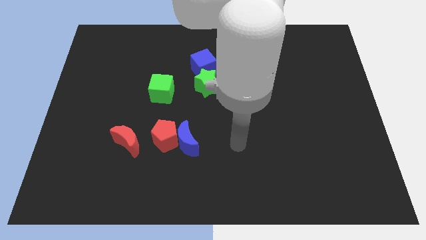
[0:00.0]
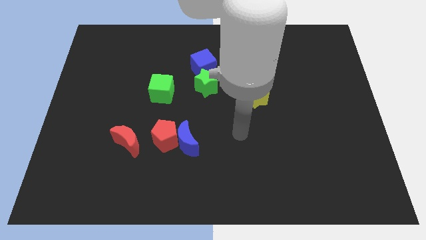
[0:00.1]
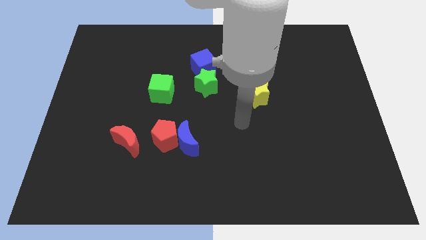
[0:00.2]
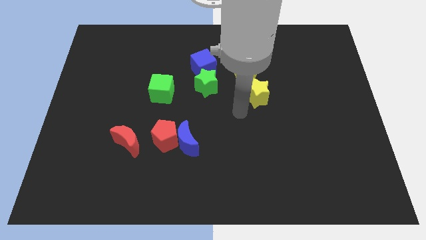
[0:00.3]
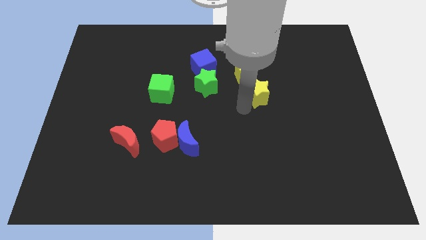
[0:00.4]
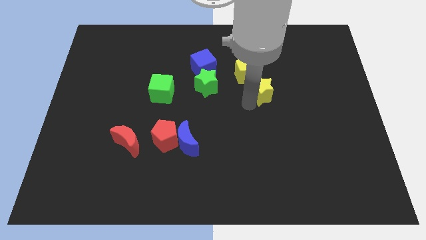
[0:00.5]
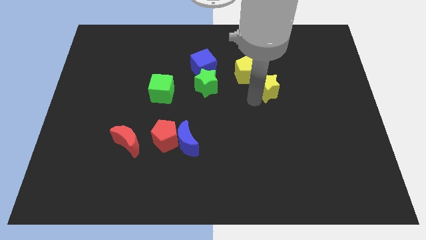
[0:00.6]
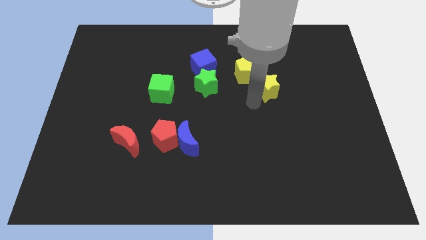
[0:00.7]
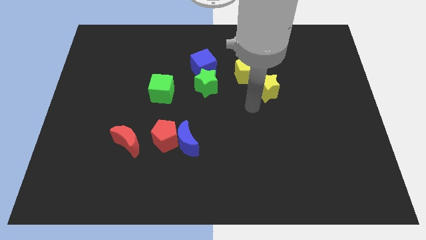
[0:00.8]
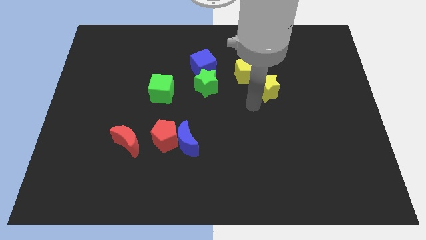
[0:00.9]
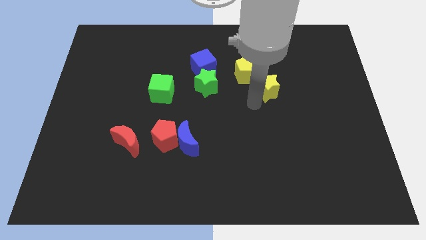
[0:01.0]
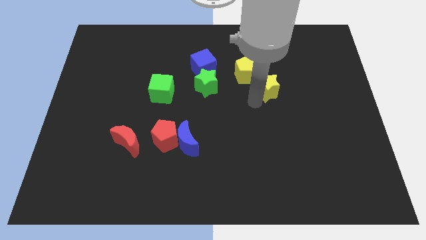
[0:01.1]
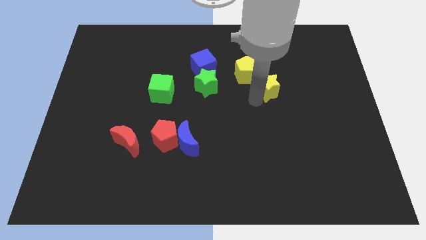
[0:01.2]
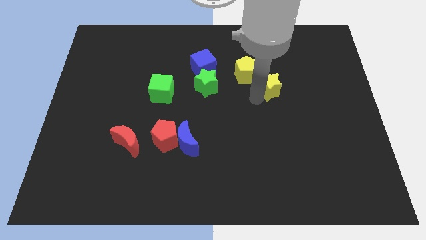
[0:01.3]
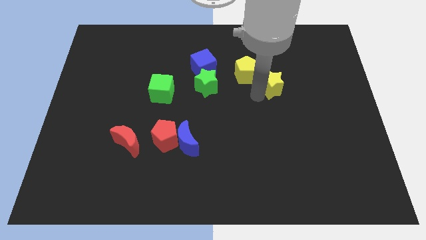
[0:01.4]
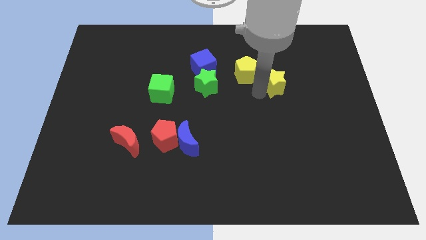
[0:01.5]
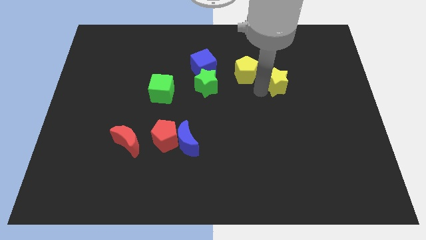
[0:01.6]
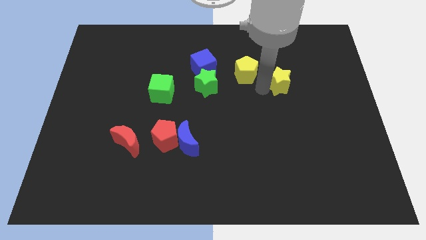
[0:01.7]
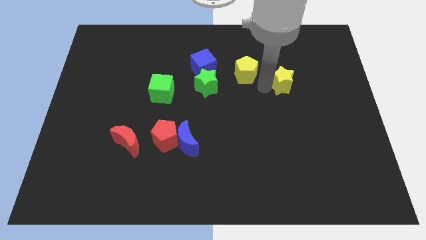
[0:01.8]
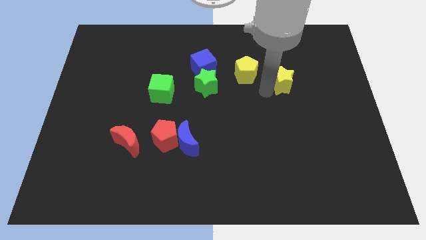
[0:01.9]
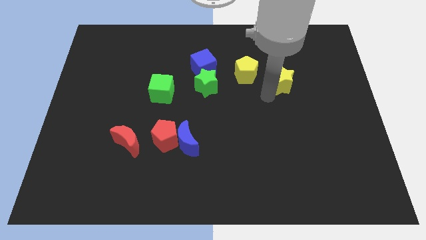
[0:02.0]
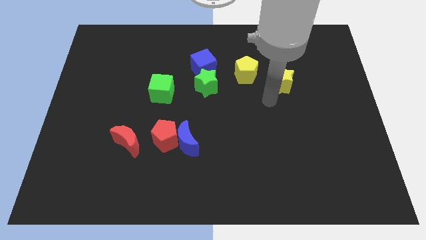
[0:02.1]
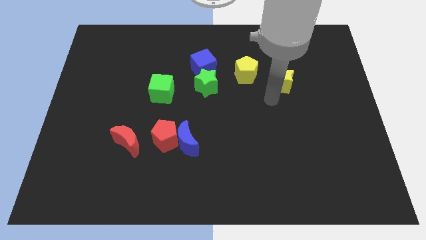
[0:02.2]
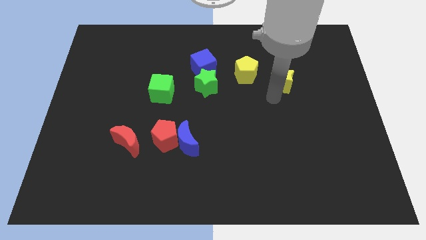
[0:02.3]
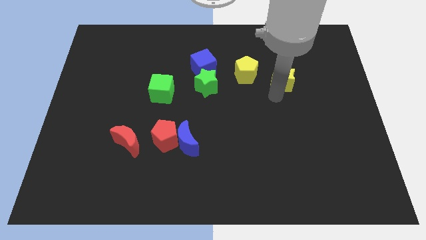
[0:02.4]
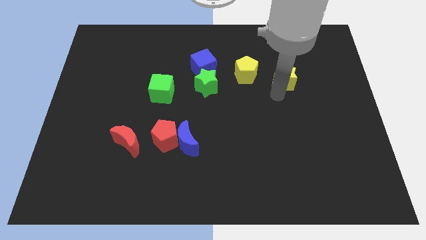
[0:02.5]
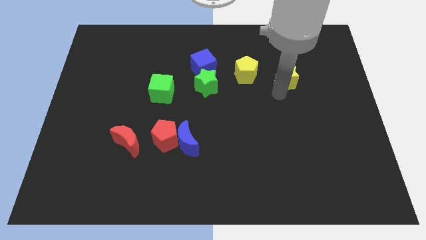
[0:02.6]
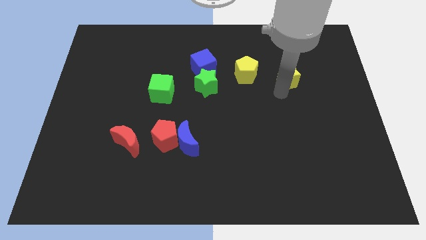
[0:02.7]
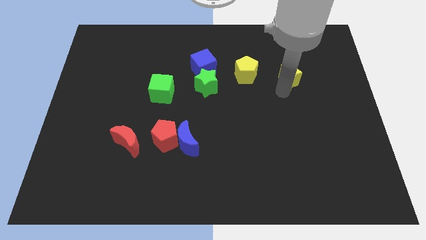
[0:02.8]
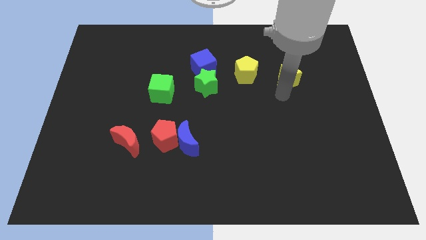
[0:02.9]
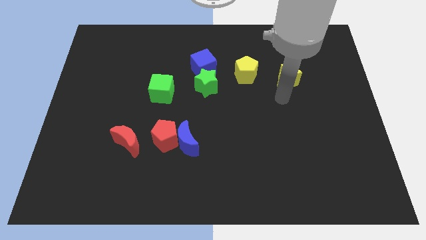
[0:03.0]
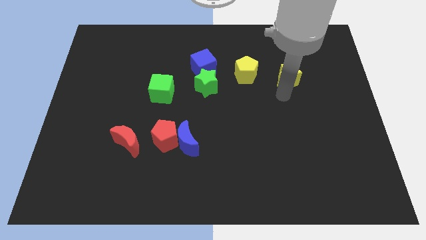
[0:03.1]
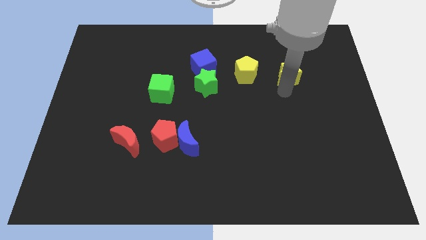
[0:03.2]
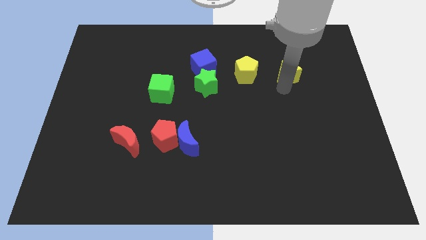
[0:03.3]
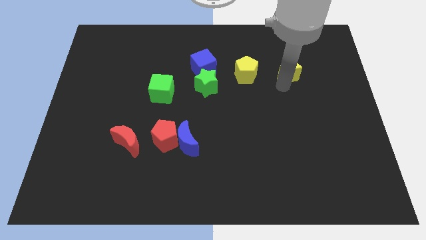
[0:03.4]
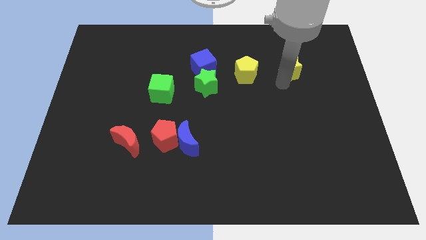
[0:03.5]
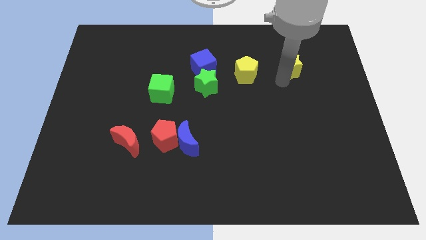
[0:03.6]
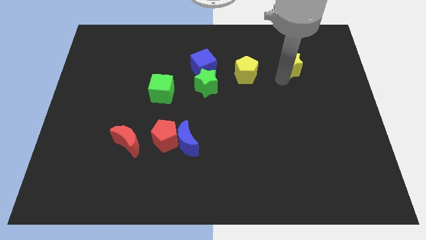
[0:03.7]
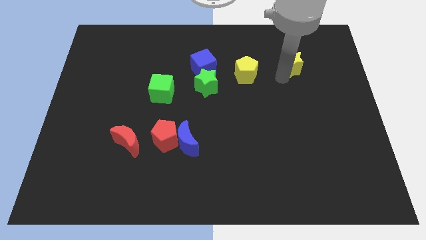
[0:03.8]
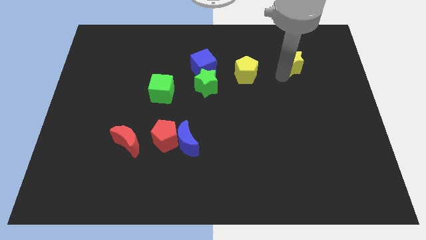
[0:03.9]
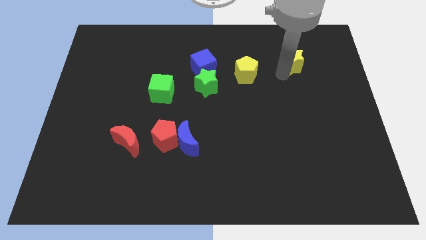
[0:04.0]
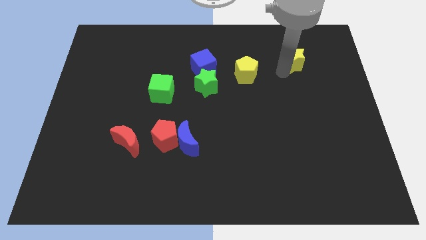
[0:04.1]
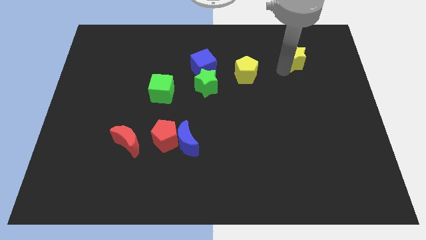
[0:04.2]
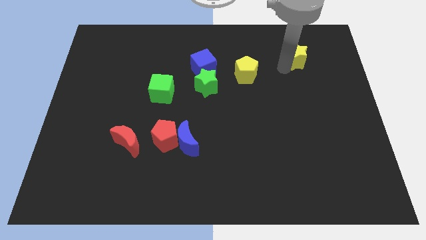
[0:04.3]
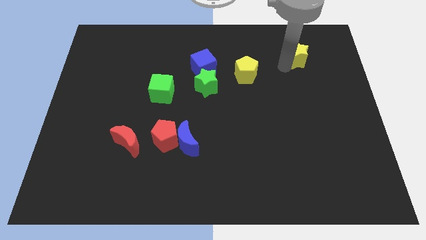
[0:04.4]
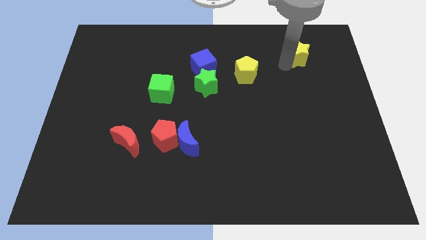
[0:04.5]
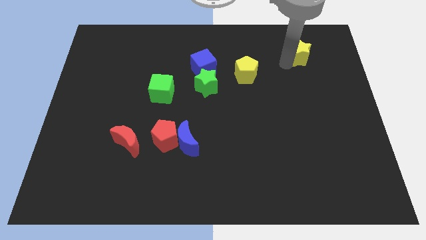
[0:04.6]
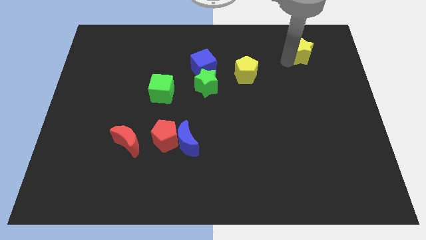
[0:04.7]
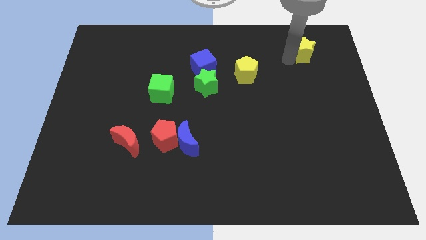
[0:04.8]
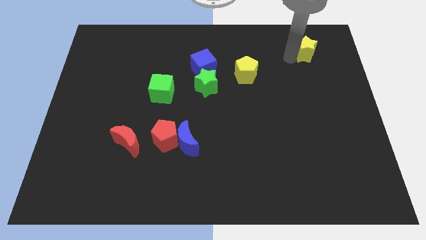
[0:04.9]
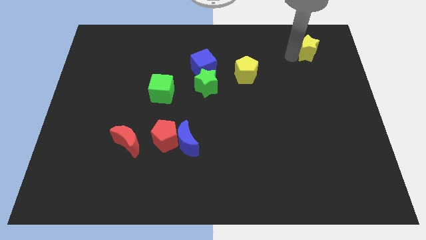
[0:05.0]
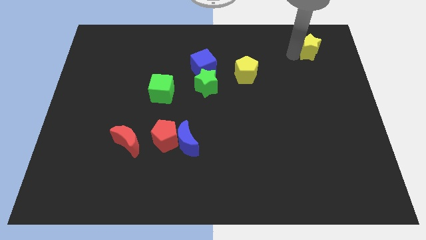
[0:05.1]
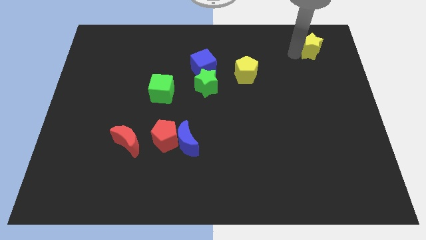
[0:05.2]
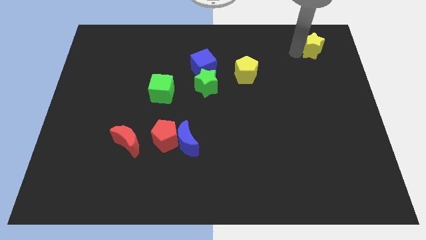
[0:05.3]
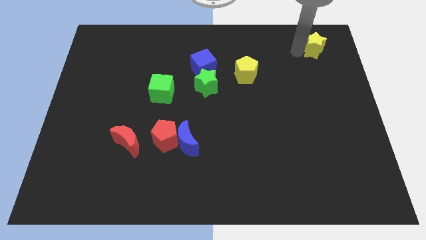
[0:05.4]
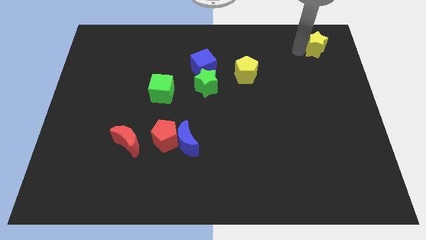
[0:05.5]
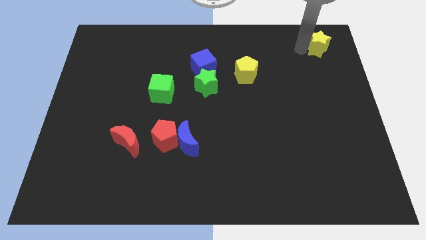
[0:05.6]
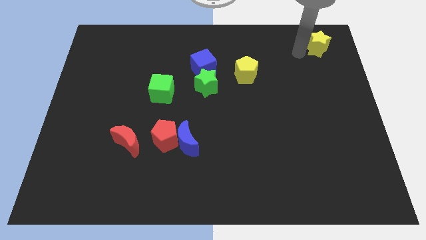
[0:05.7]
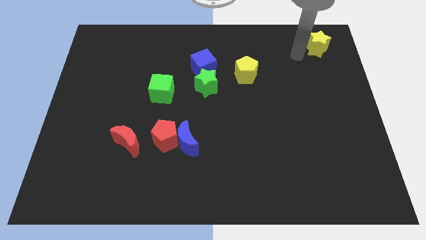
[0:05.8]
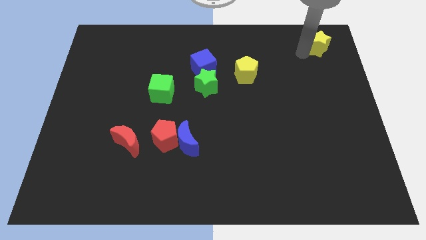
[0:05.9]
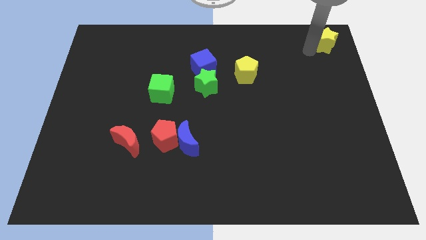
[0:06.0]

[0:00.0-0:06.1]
slide the yellow star to the top right corner

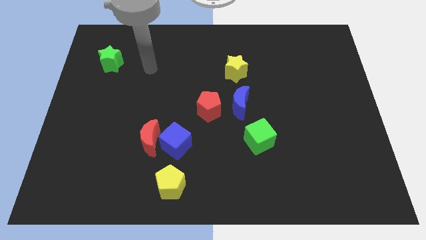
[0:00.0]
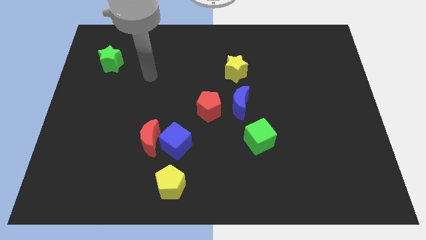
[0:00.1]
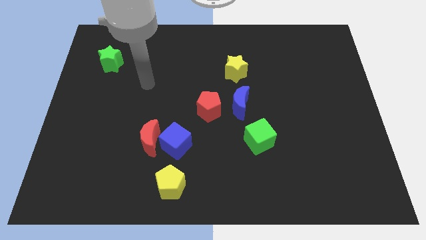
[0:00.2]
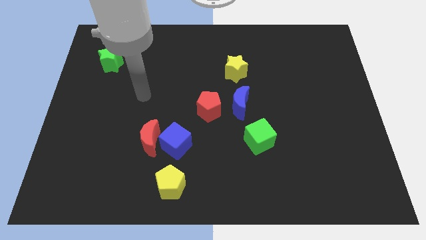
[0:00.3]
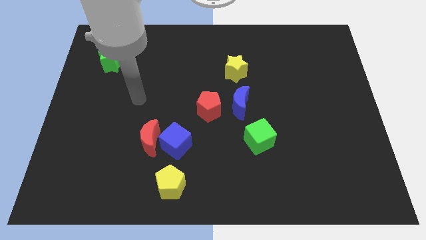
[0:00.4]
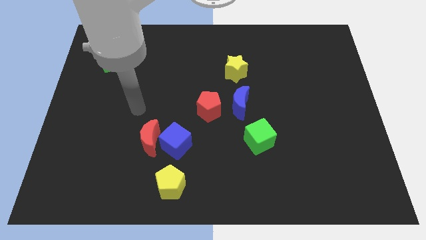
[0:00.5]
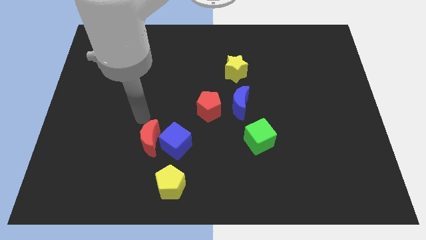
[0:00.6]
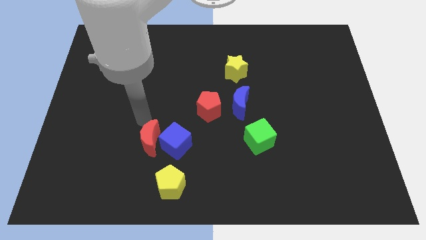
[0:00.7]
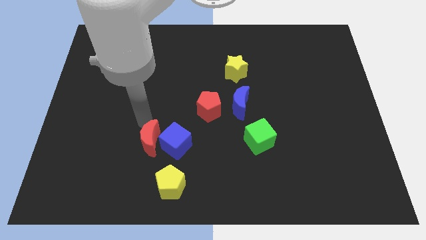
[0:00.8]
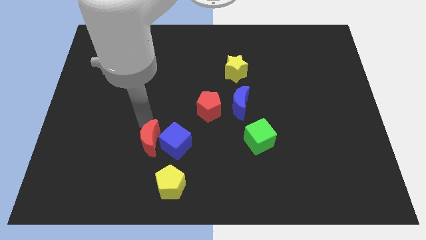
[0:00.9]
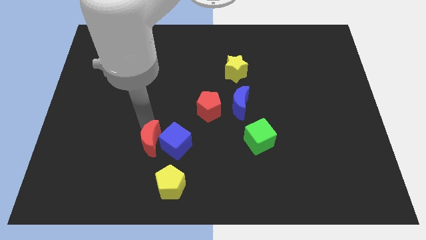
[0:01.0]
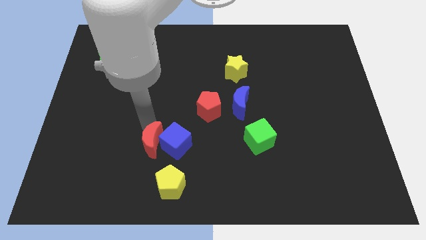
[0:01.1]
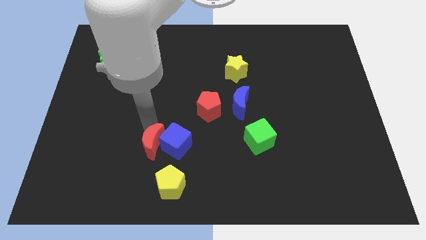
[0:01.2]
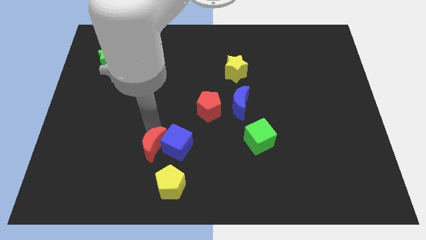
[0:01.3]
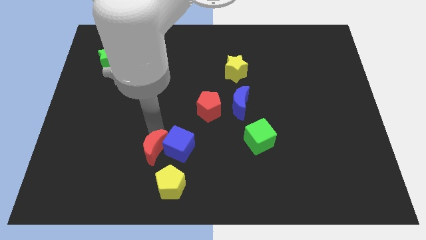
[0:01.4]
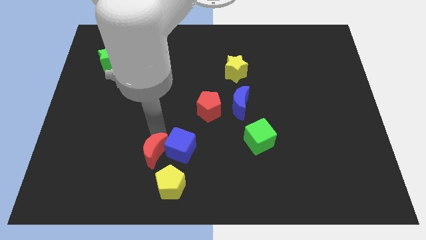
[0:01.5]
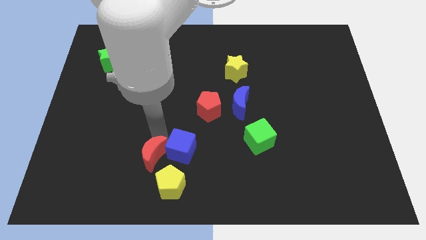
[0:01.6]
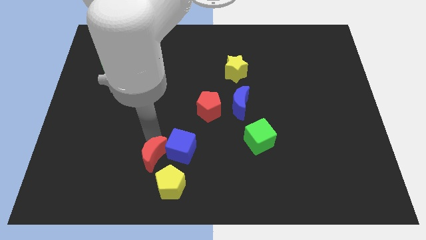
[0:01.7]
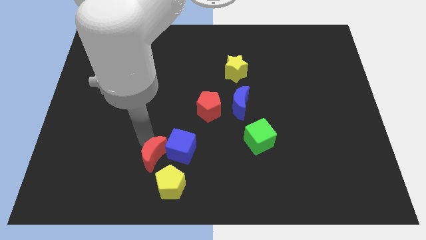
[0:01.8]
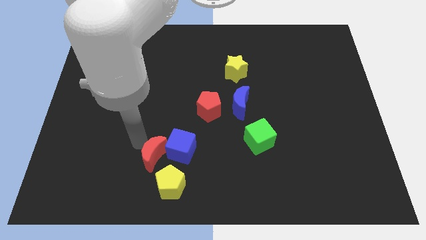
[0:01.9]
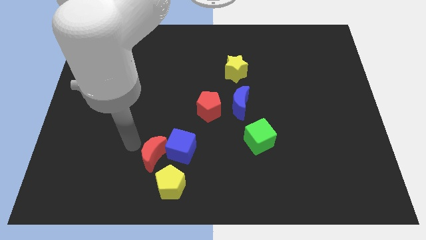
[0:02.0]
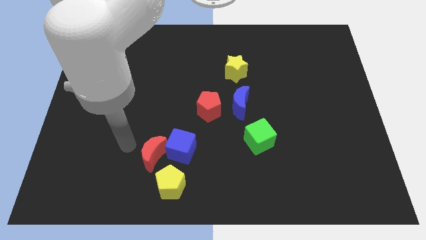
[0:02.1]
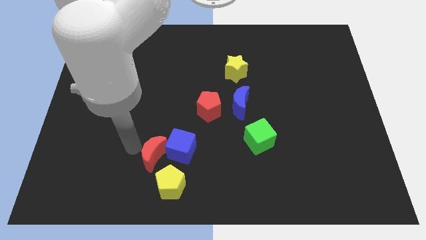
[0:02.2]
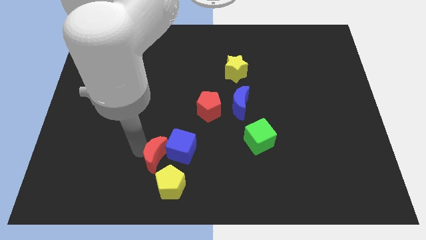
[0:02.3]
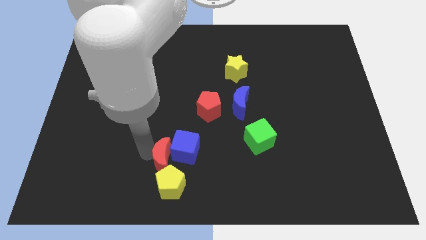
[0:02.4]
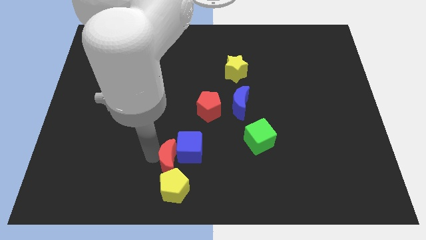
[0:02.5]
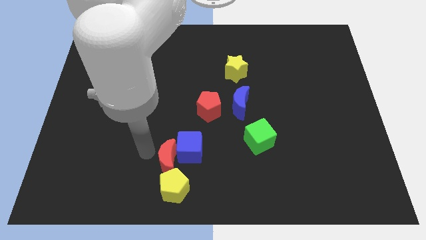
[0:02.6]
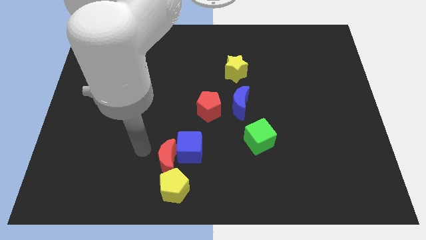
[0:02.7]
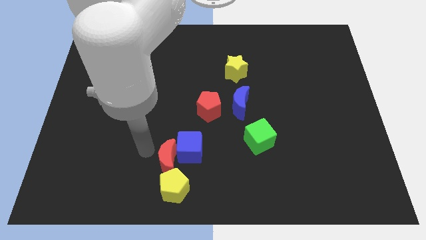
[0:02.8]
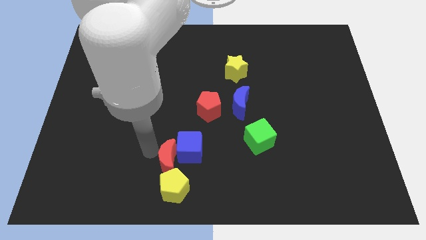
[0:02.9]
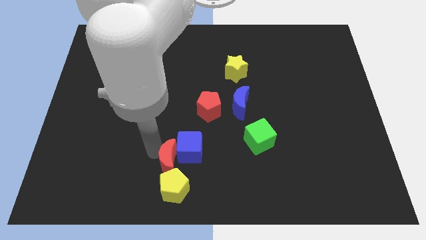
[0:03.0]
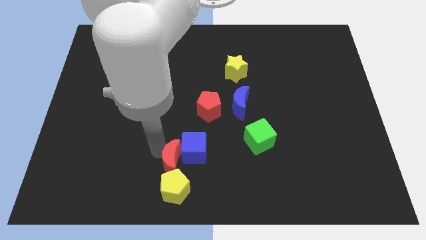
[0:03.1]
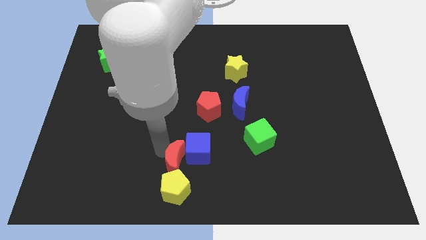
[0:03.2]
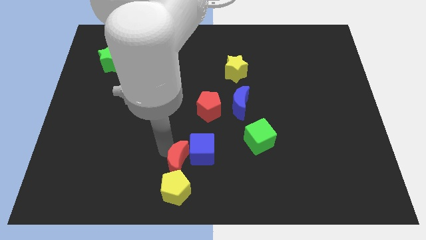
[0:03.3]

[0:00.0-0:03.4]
slide the red moon to the bottom side
